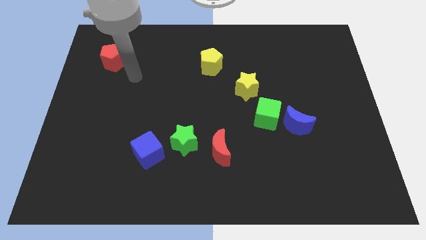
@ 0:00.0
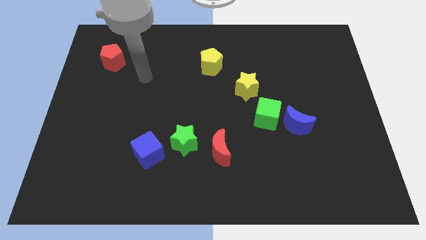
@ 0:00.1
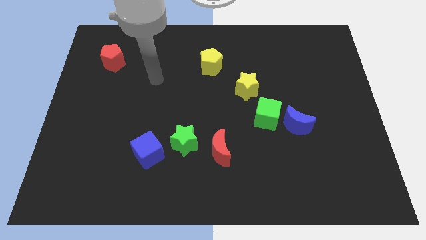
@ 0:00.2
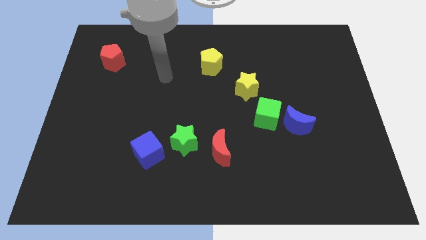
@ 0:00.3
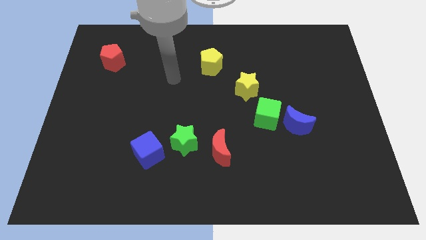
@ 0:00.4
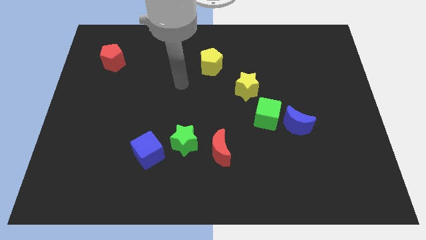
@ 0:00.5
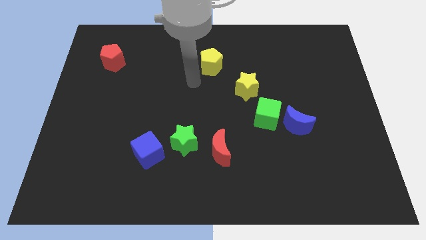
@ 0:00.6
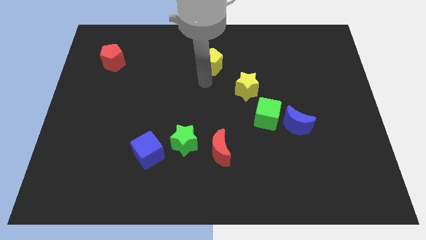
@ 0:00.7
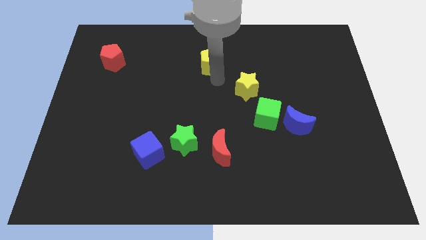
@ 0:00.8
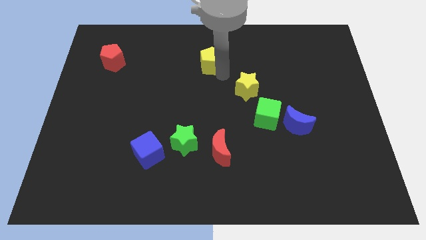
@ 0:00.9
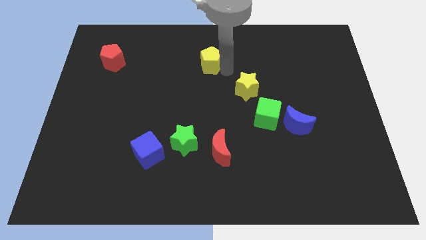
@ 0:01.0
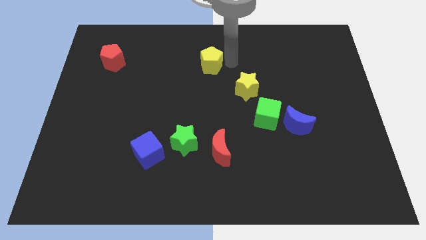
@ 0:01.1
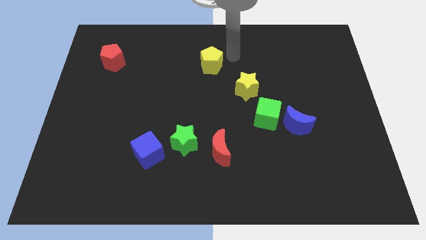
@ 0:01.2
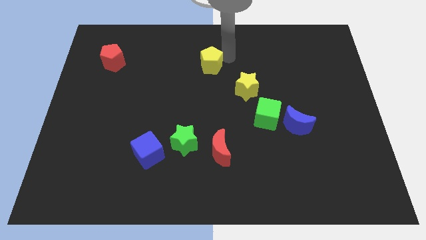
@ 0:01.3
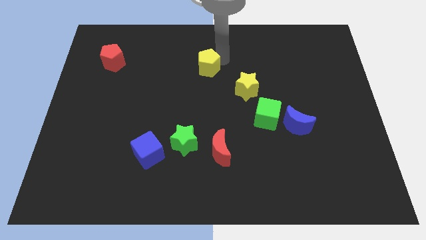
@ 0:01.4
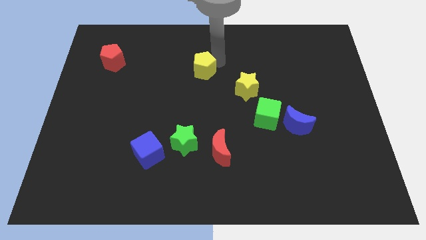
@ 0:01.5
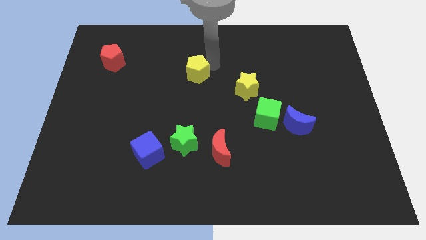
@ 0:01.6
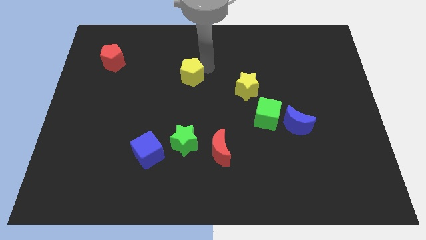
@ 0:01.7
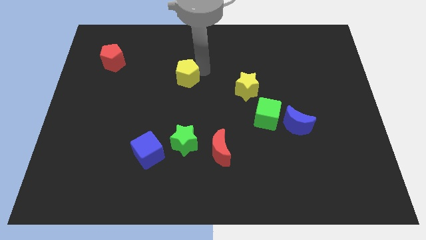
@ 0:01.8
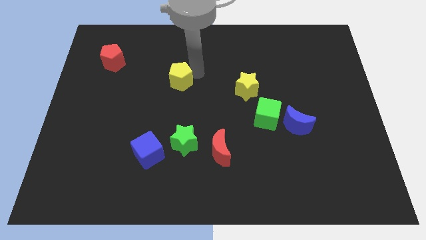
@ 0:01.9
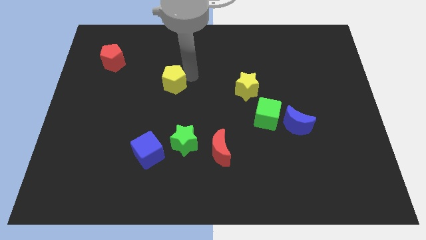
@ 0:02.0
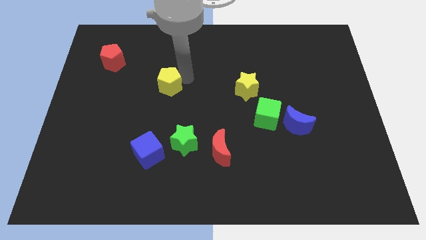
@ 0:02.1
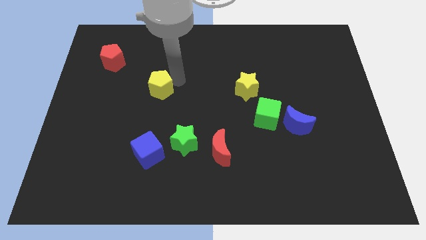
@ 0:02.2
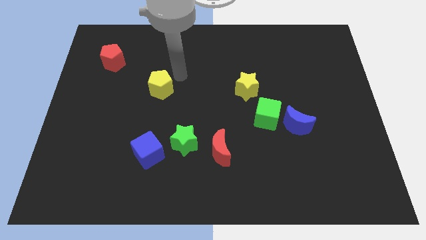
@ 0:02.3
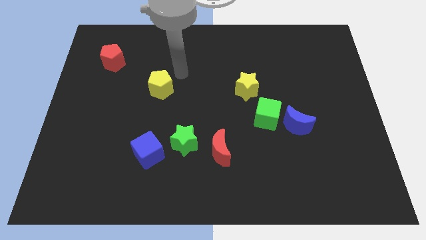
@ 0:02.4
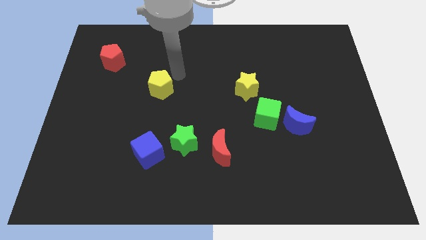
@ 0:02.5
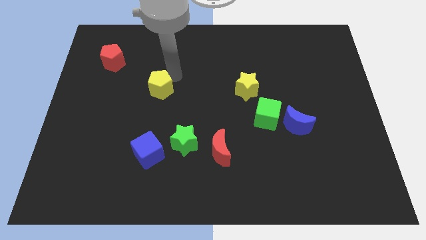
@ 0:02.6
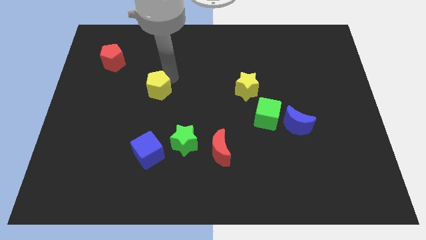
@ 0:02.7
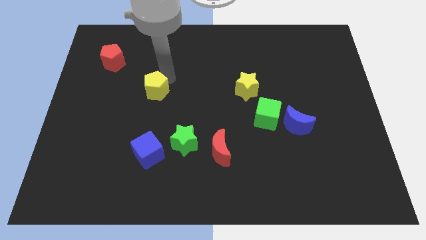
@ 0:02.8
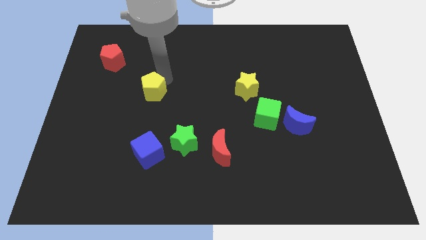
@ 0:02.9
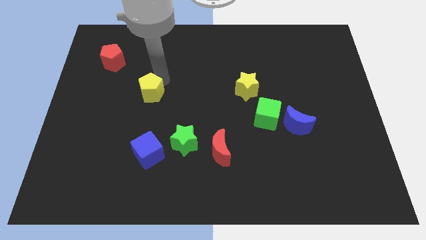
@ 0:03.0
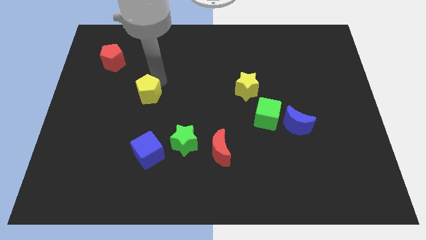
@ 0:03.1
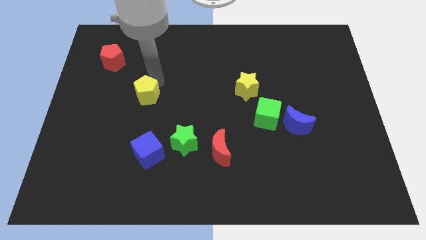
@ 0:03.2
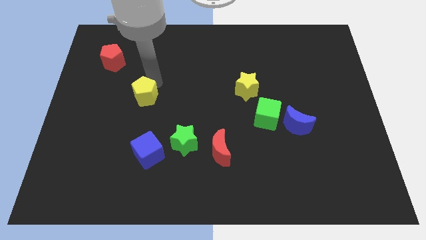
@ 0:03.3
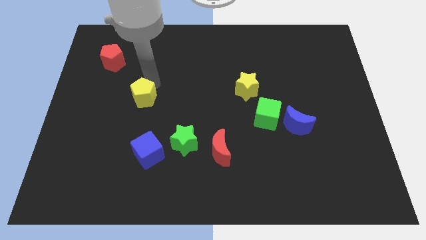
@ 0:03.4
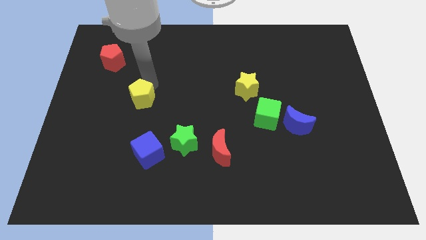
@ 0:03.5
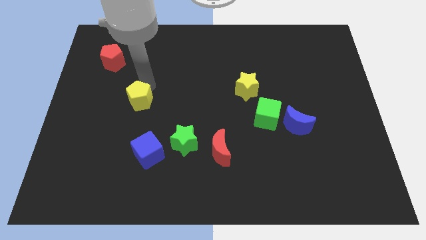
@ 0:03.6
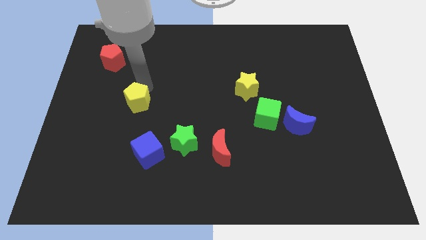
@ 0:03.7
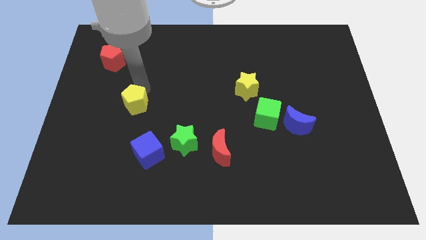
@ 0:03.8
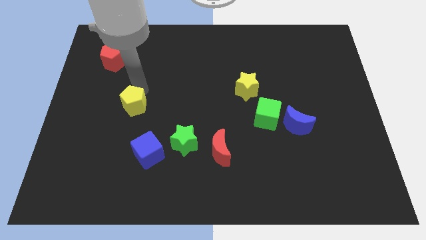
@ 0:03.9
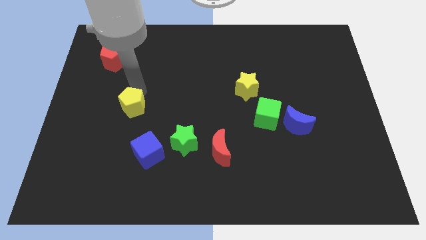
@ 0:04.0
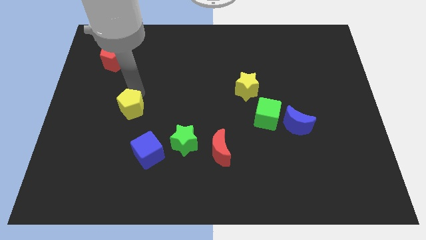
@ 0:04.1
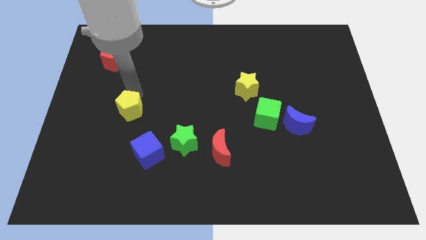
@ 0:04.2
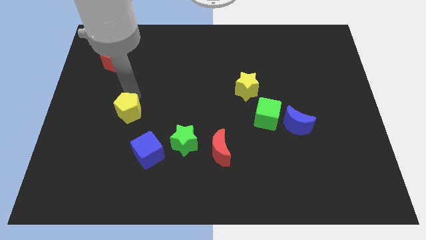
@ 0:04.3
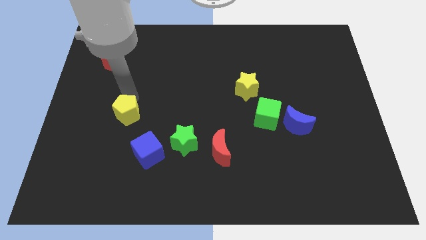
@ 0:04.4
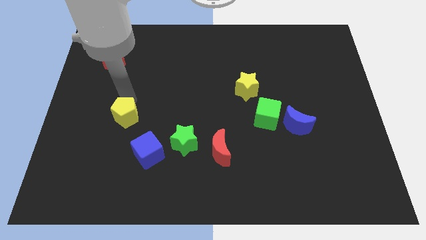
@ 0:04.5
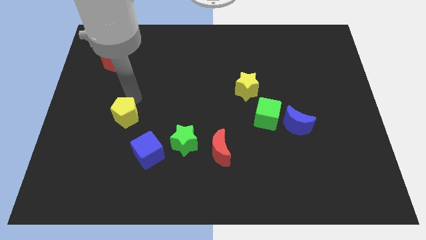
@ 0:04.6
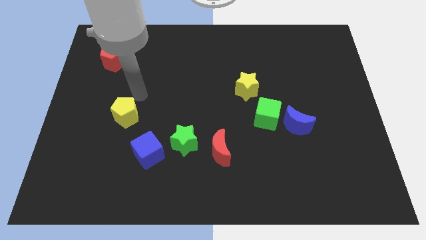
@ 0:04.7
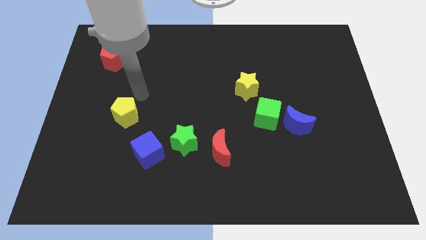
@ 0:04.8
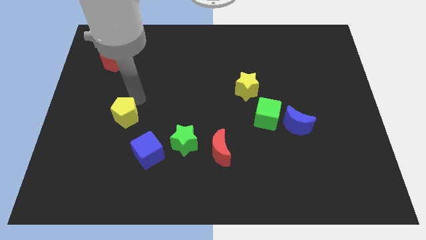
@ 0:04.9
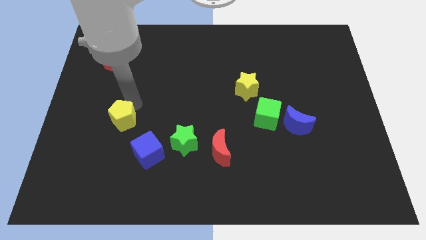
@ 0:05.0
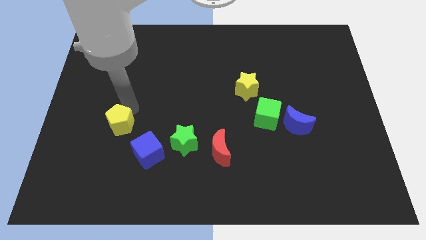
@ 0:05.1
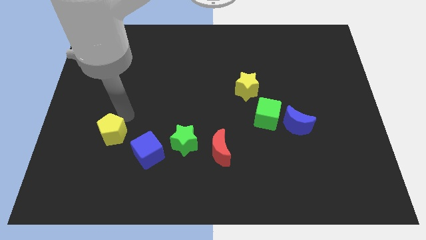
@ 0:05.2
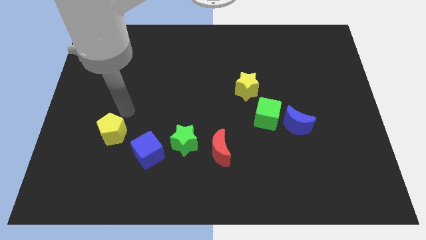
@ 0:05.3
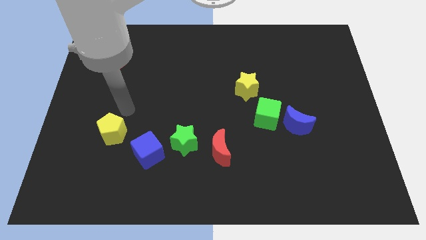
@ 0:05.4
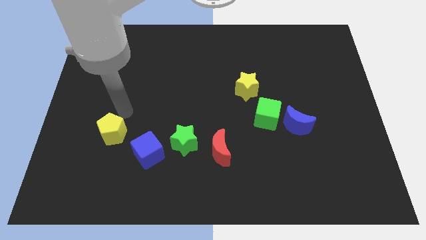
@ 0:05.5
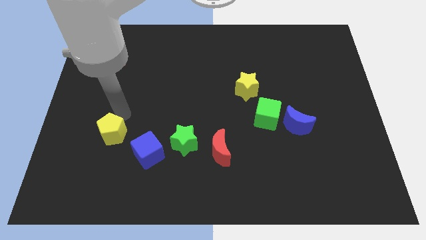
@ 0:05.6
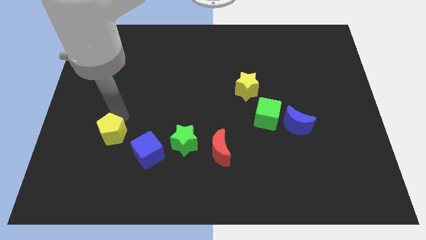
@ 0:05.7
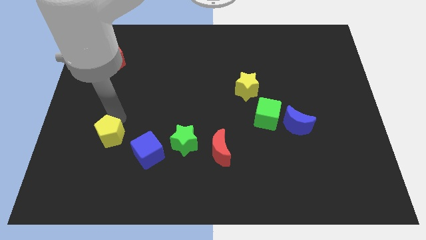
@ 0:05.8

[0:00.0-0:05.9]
slide the yellow pentagon just left of the blue cube

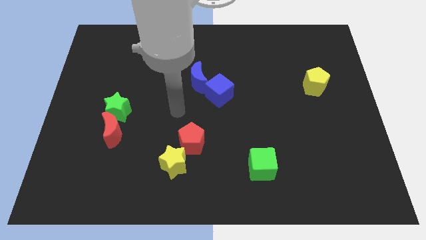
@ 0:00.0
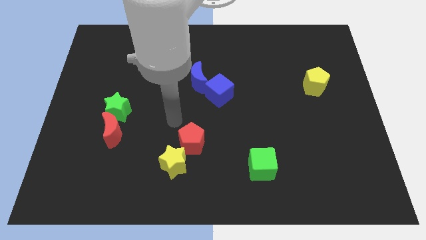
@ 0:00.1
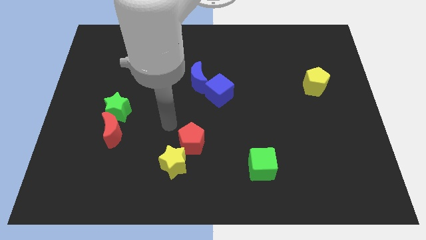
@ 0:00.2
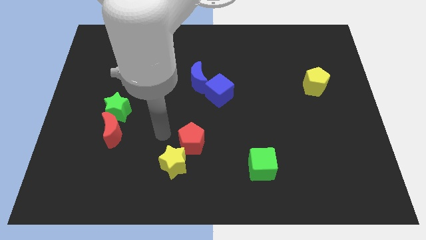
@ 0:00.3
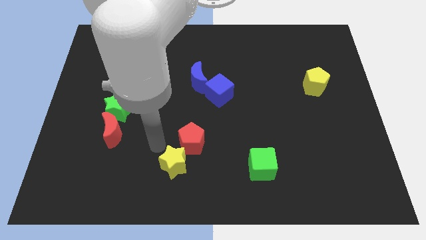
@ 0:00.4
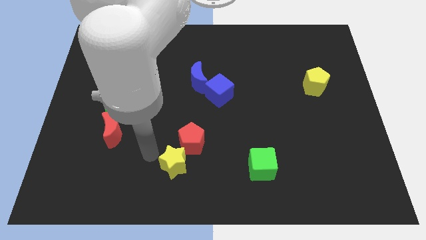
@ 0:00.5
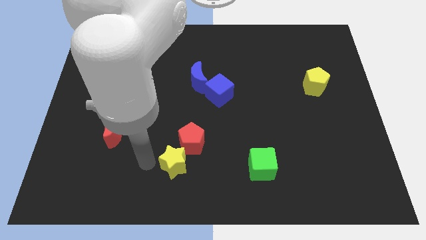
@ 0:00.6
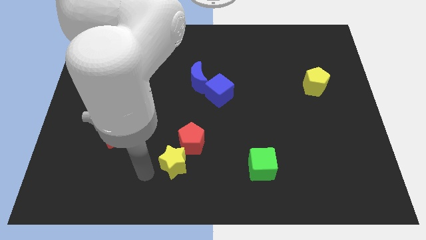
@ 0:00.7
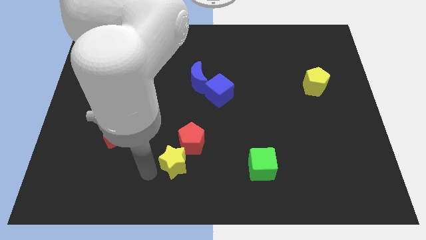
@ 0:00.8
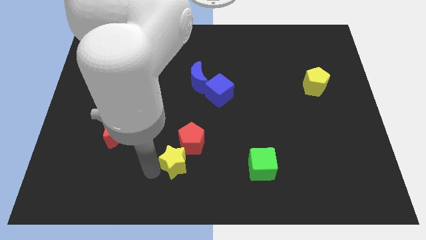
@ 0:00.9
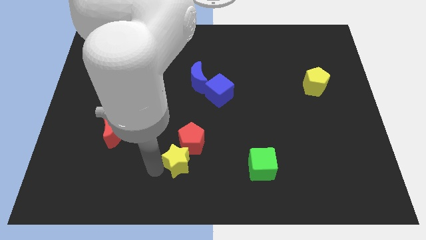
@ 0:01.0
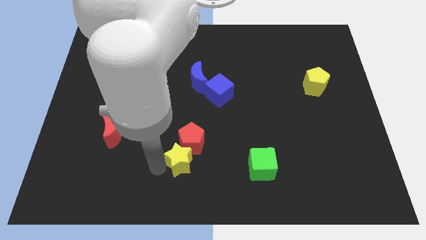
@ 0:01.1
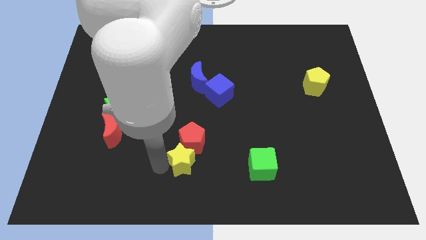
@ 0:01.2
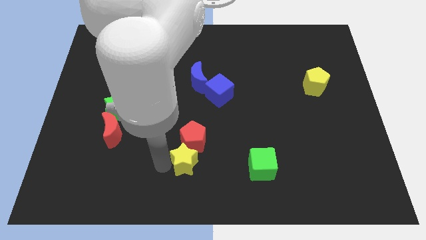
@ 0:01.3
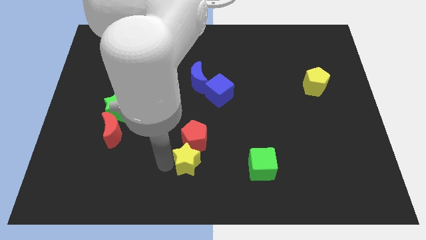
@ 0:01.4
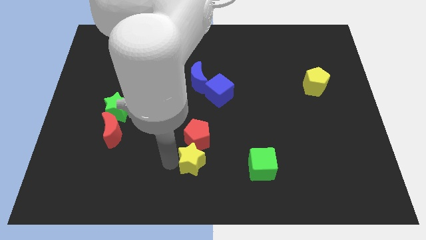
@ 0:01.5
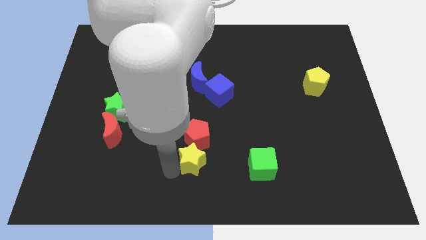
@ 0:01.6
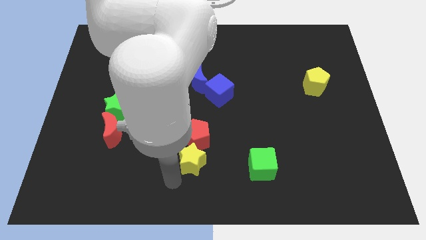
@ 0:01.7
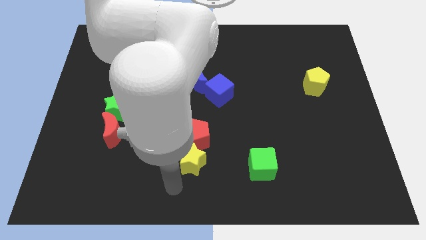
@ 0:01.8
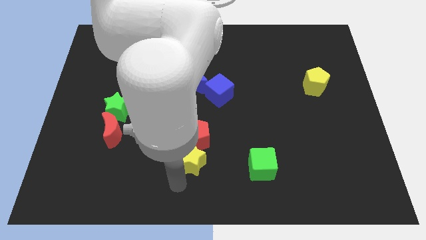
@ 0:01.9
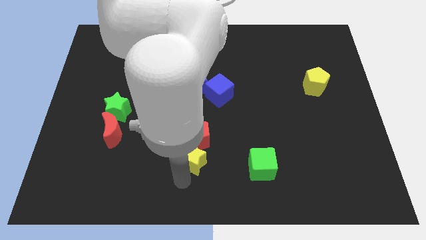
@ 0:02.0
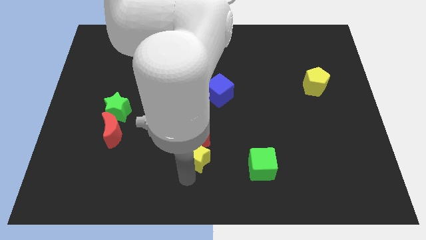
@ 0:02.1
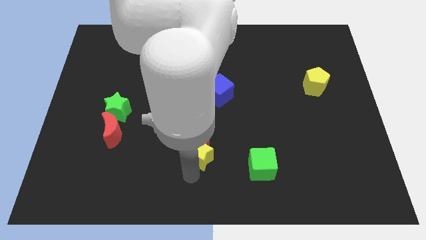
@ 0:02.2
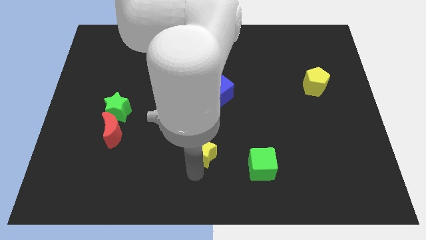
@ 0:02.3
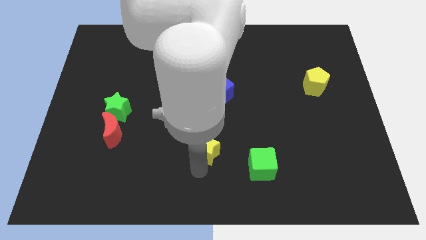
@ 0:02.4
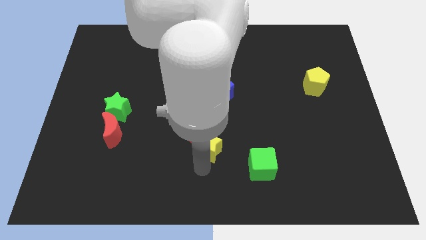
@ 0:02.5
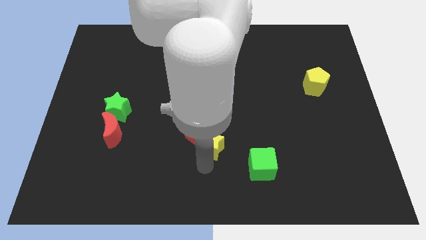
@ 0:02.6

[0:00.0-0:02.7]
slide the yellow star to the bottom side of the blue cube
